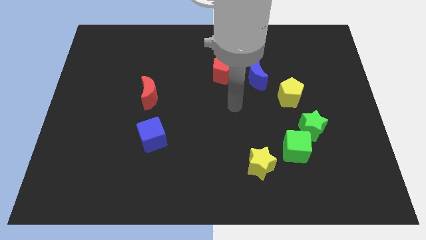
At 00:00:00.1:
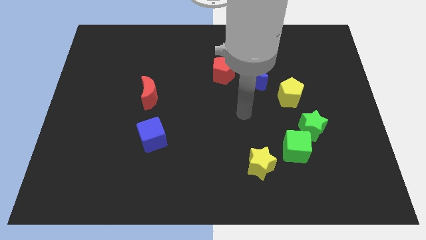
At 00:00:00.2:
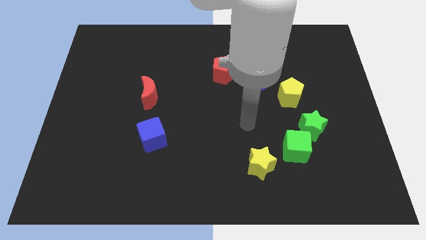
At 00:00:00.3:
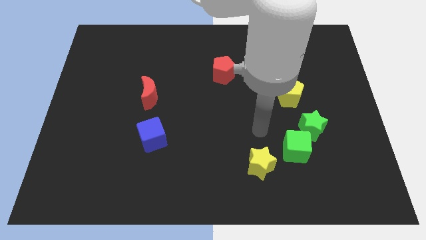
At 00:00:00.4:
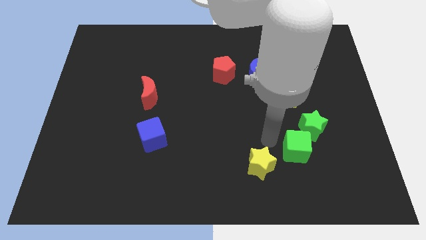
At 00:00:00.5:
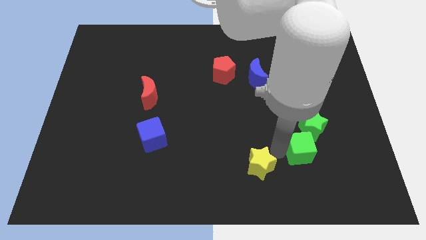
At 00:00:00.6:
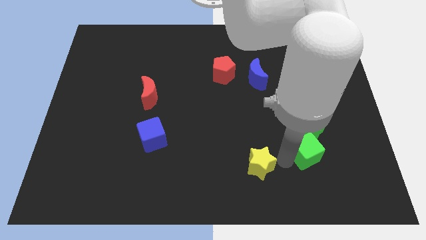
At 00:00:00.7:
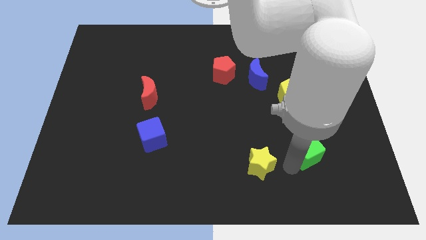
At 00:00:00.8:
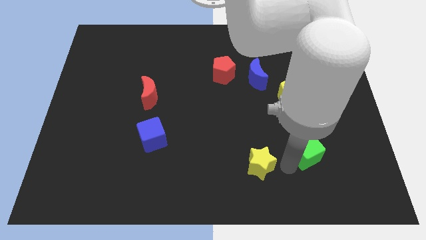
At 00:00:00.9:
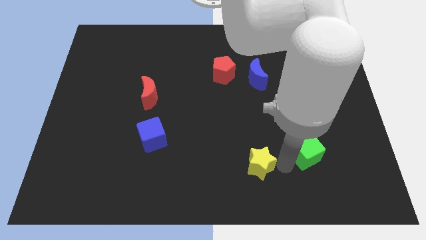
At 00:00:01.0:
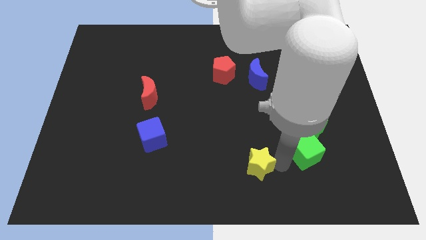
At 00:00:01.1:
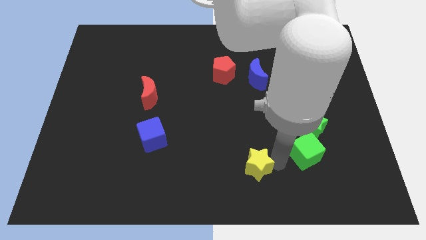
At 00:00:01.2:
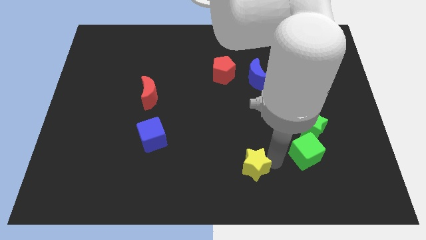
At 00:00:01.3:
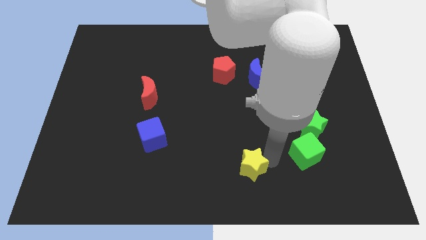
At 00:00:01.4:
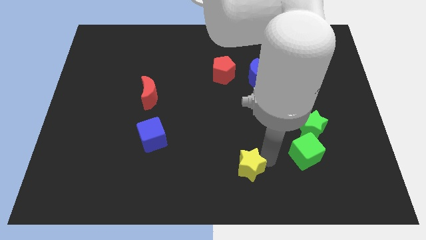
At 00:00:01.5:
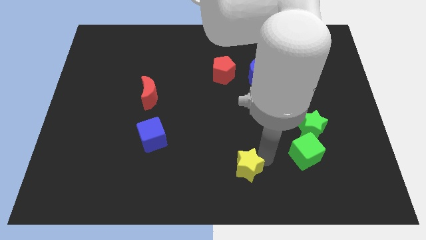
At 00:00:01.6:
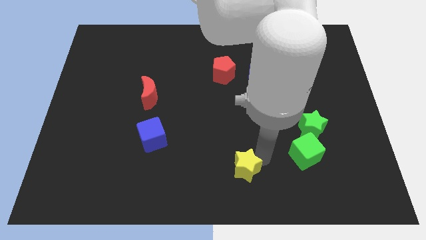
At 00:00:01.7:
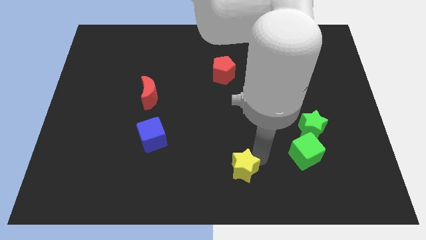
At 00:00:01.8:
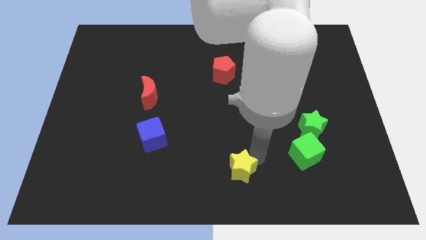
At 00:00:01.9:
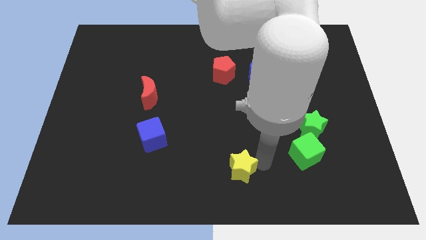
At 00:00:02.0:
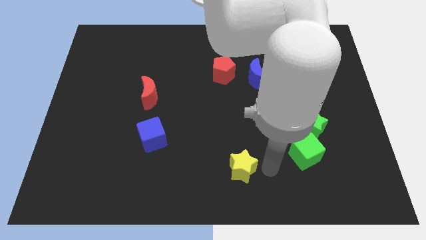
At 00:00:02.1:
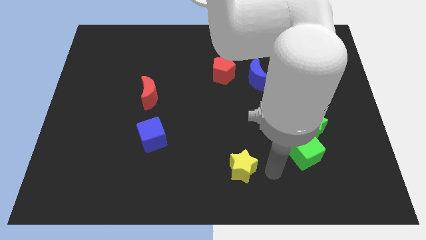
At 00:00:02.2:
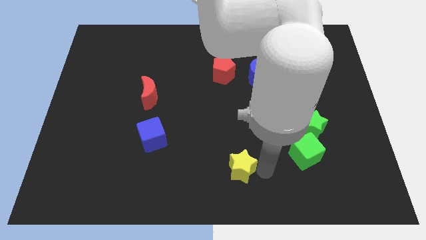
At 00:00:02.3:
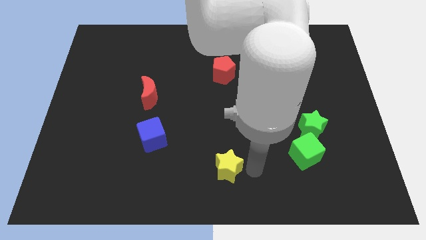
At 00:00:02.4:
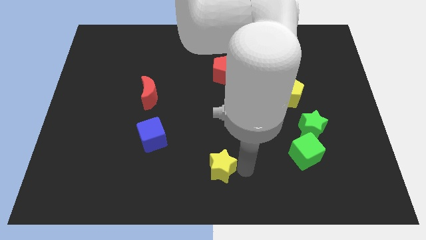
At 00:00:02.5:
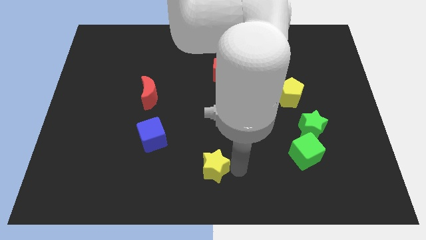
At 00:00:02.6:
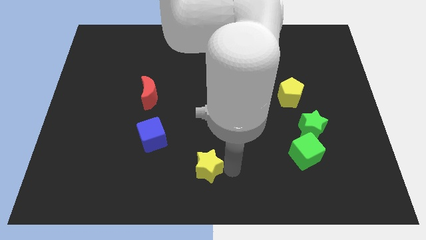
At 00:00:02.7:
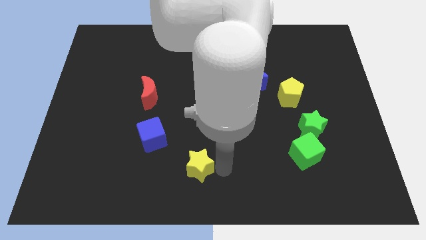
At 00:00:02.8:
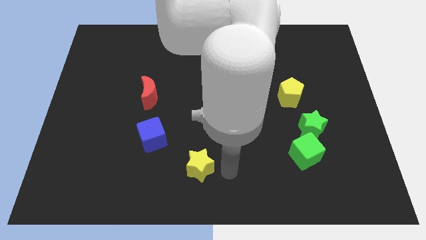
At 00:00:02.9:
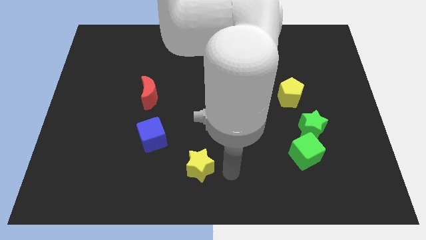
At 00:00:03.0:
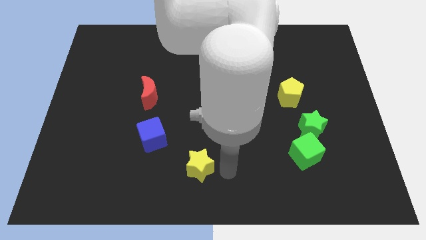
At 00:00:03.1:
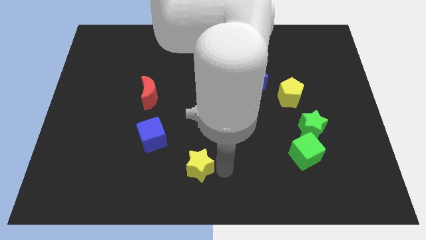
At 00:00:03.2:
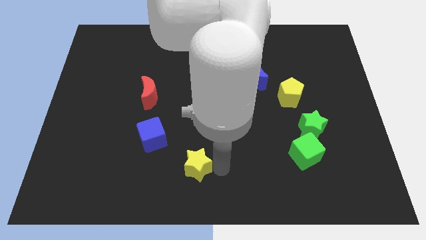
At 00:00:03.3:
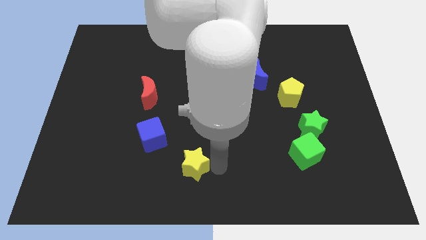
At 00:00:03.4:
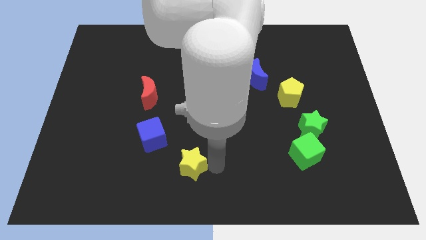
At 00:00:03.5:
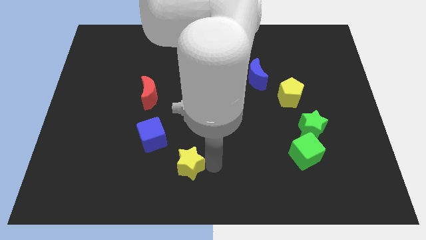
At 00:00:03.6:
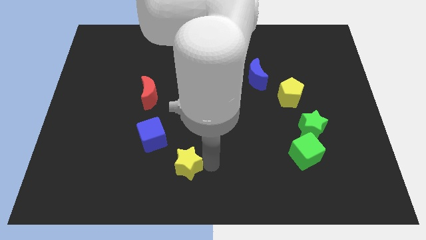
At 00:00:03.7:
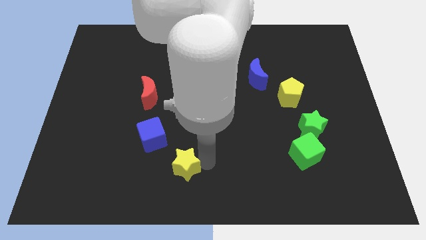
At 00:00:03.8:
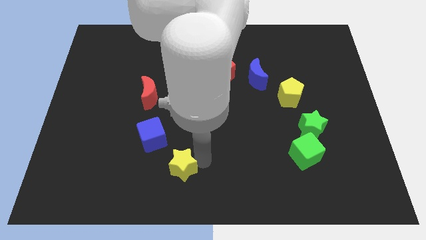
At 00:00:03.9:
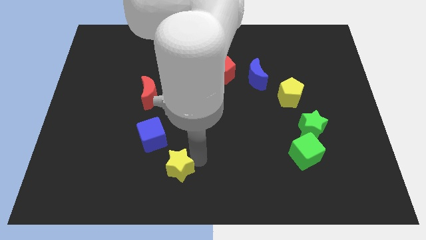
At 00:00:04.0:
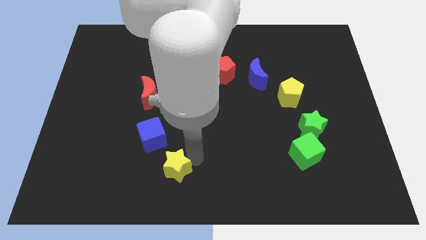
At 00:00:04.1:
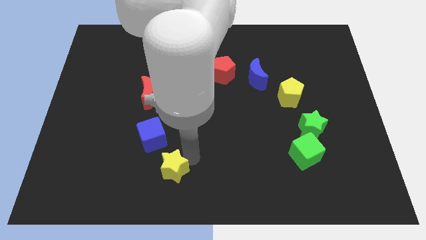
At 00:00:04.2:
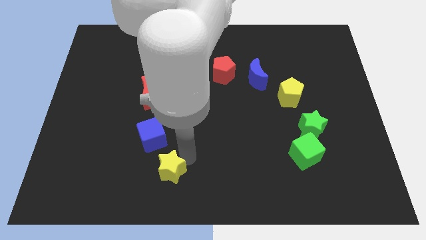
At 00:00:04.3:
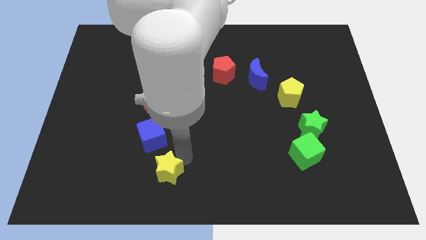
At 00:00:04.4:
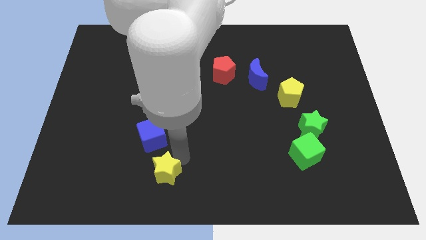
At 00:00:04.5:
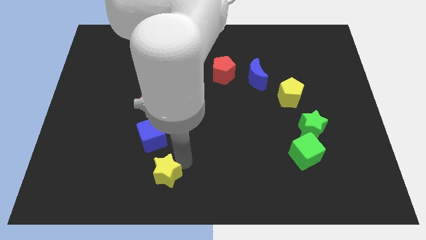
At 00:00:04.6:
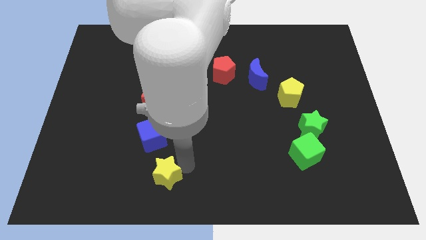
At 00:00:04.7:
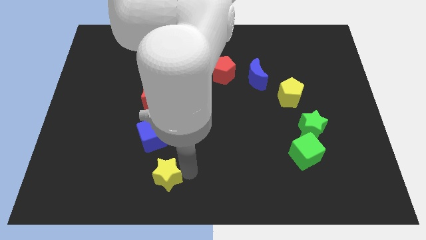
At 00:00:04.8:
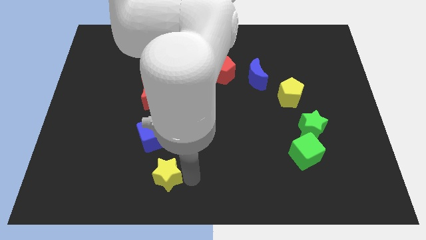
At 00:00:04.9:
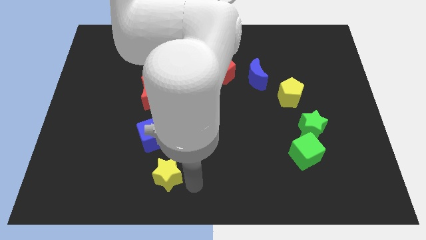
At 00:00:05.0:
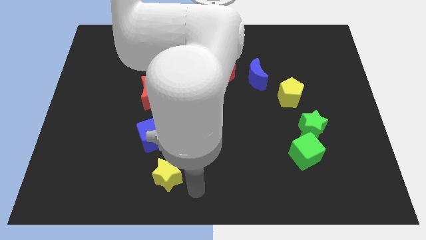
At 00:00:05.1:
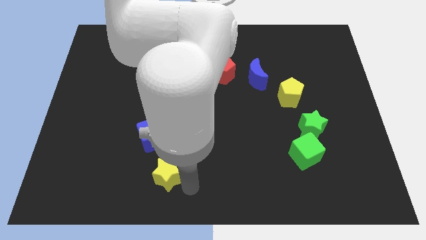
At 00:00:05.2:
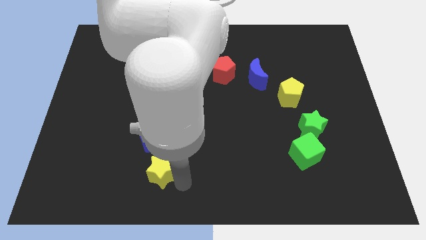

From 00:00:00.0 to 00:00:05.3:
push the yellow star left

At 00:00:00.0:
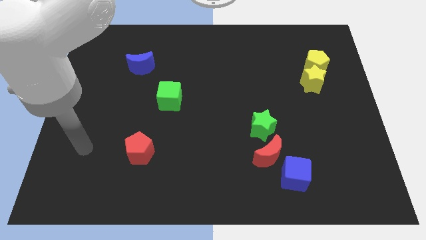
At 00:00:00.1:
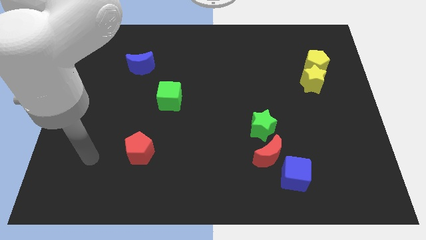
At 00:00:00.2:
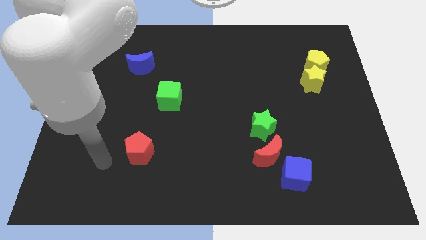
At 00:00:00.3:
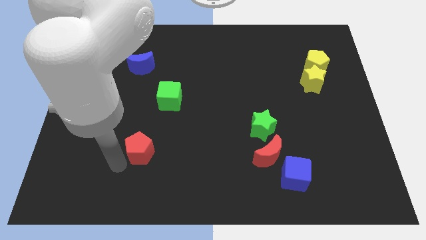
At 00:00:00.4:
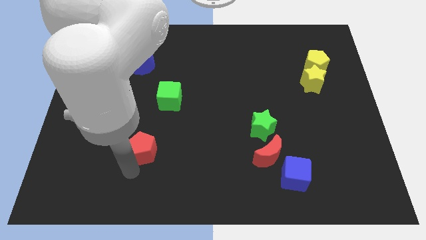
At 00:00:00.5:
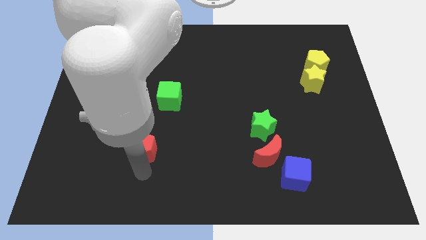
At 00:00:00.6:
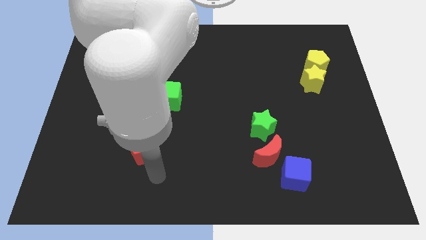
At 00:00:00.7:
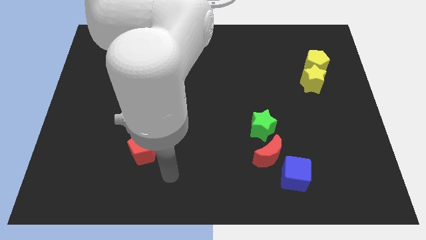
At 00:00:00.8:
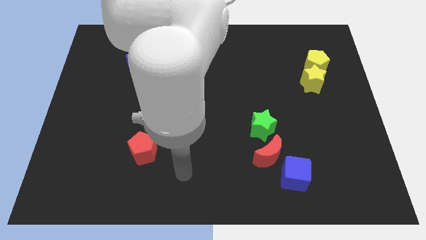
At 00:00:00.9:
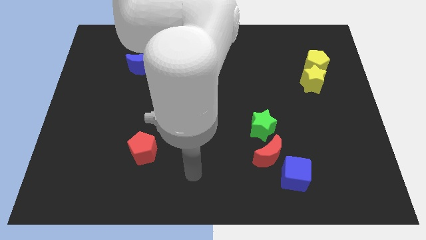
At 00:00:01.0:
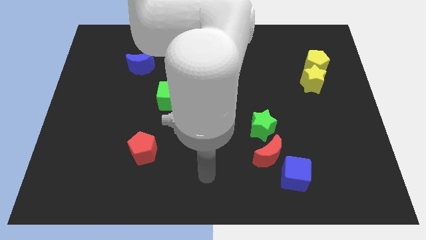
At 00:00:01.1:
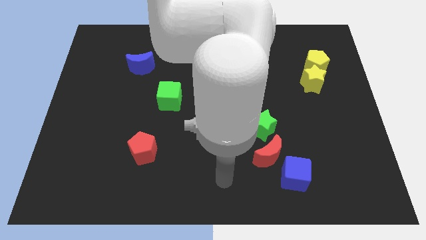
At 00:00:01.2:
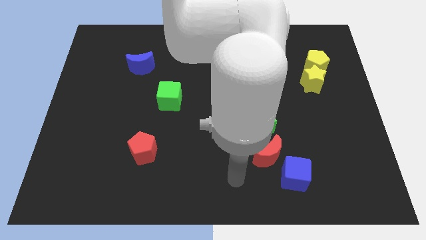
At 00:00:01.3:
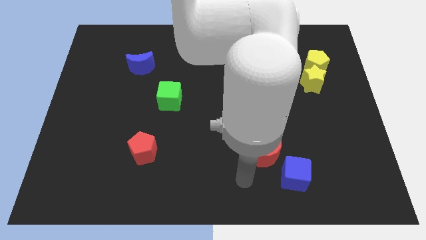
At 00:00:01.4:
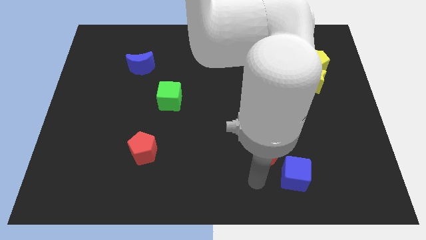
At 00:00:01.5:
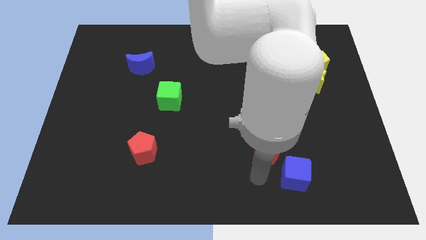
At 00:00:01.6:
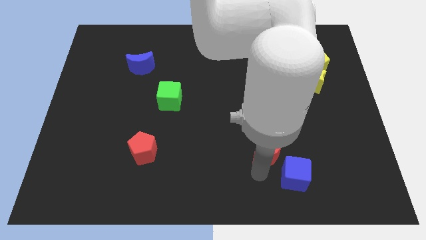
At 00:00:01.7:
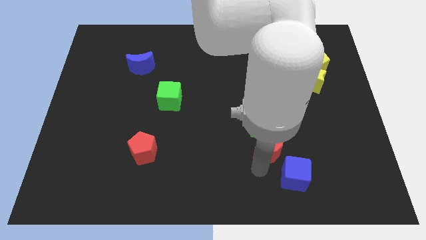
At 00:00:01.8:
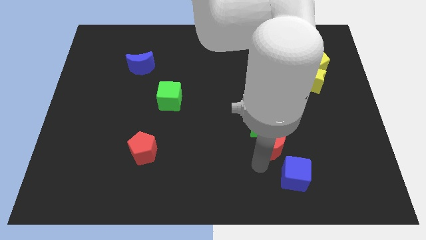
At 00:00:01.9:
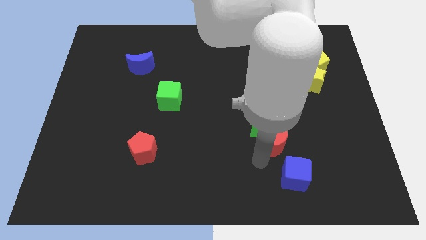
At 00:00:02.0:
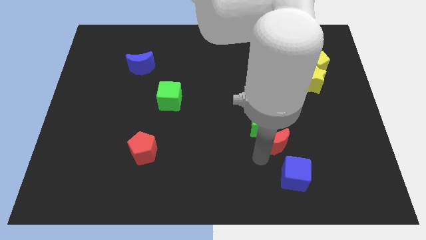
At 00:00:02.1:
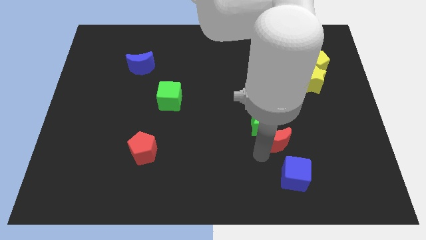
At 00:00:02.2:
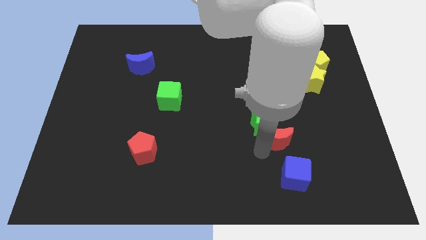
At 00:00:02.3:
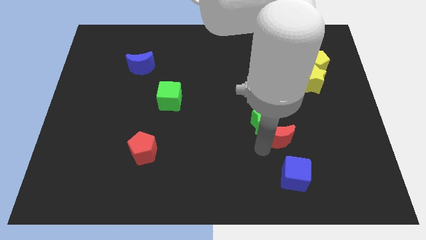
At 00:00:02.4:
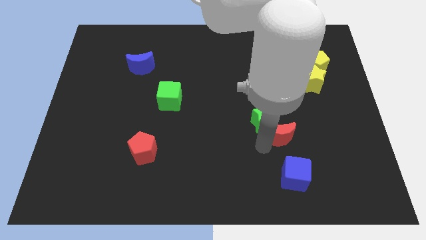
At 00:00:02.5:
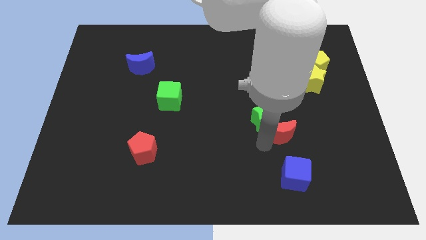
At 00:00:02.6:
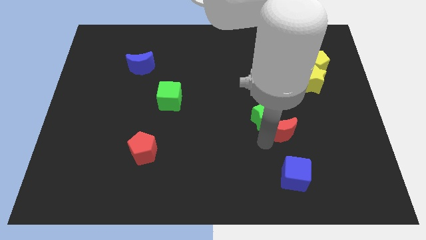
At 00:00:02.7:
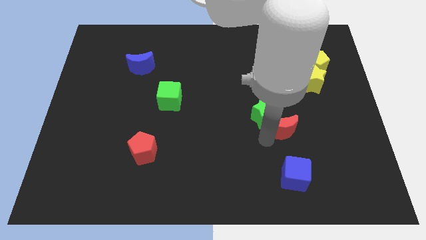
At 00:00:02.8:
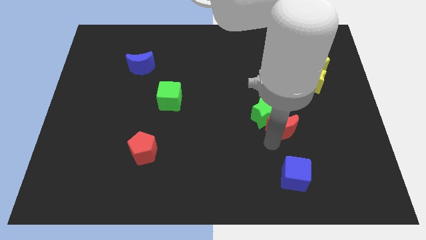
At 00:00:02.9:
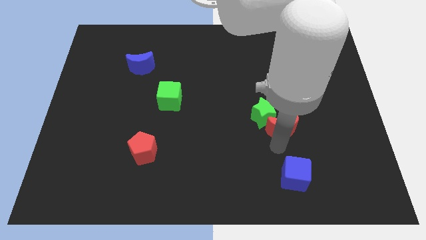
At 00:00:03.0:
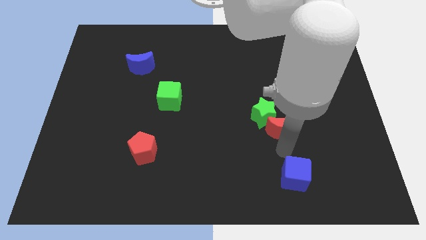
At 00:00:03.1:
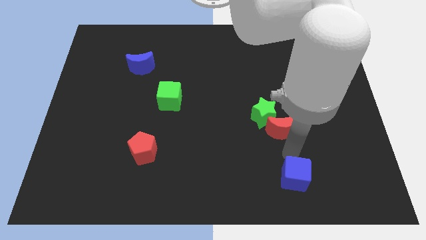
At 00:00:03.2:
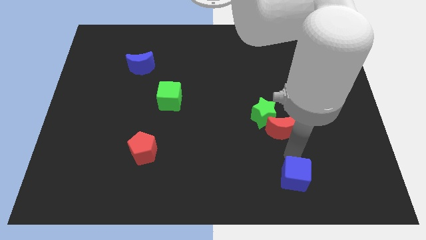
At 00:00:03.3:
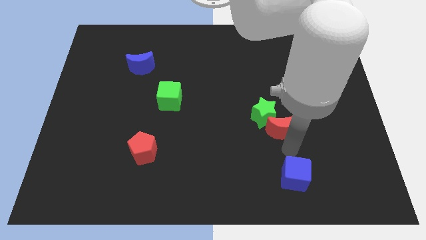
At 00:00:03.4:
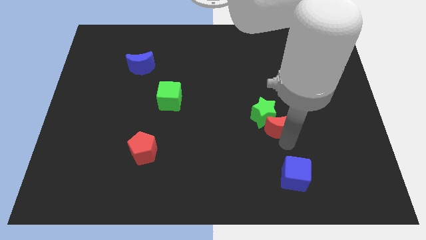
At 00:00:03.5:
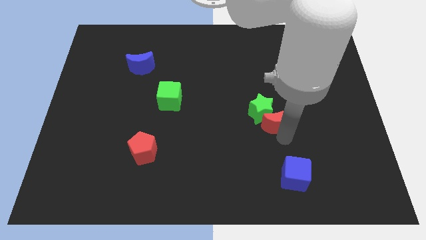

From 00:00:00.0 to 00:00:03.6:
push the red moon a bit up
